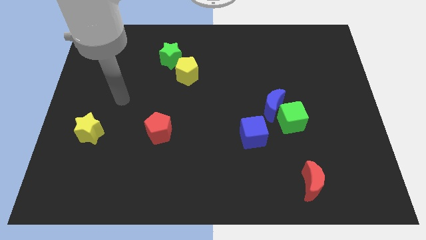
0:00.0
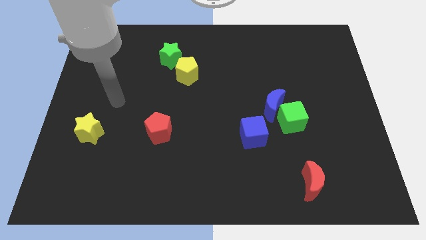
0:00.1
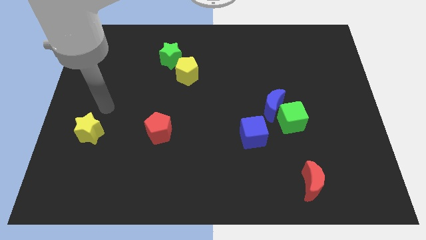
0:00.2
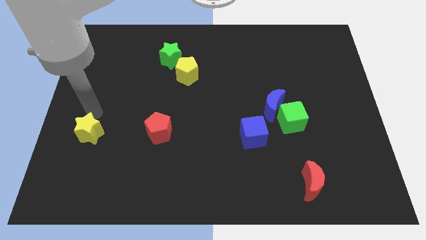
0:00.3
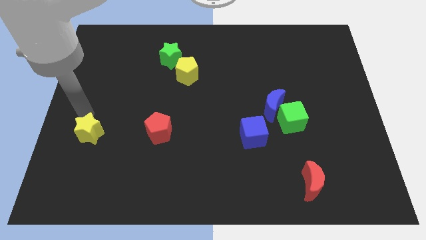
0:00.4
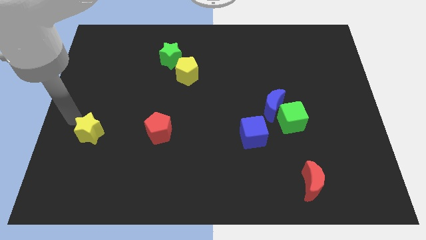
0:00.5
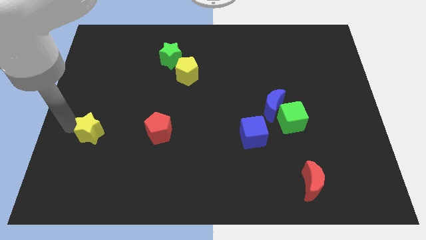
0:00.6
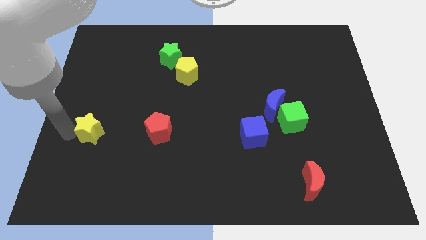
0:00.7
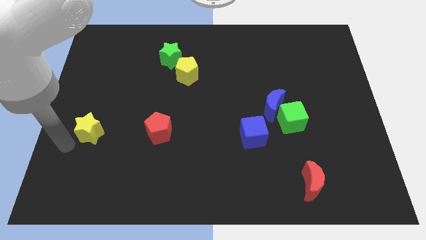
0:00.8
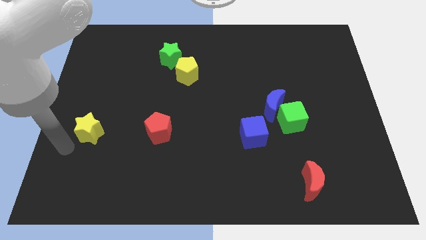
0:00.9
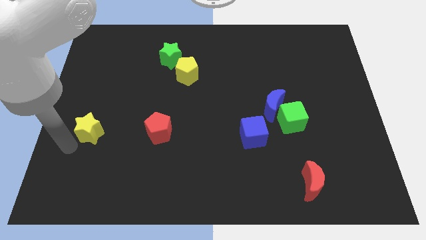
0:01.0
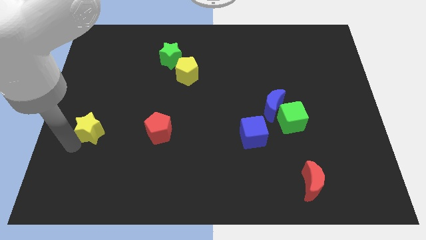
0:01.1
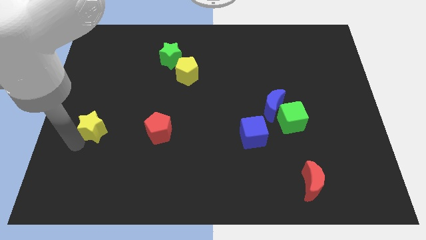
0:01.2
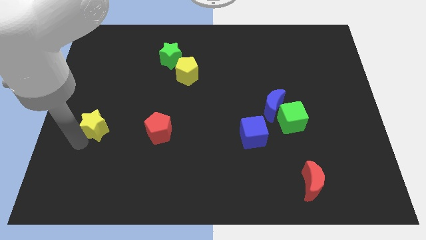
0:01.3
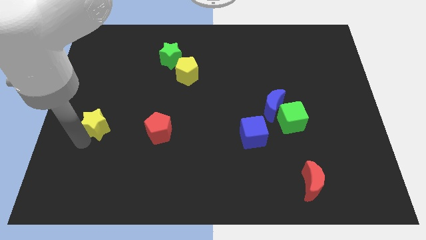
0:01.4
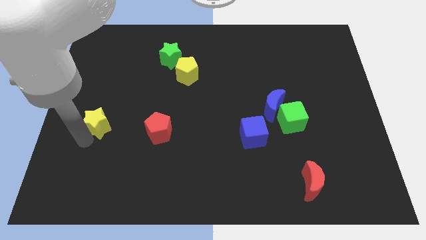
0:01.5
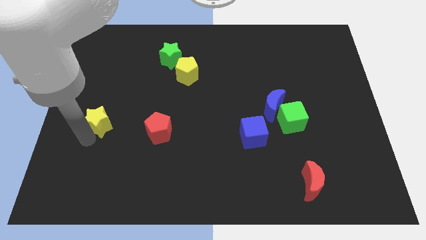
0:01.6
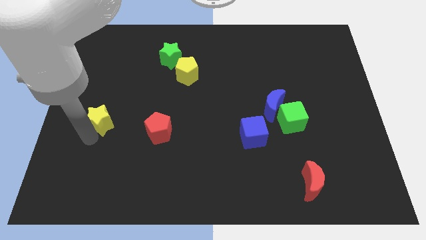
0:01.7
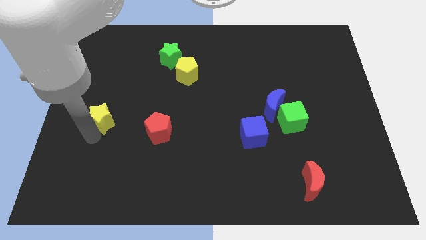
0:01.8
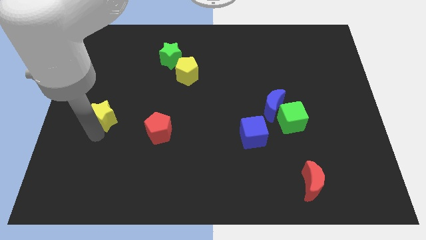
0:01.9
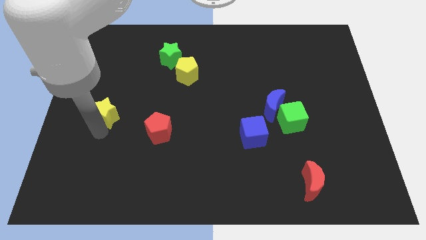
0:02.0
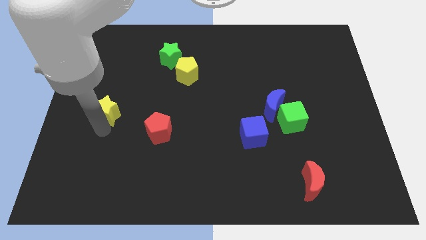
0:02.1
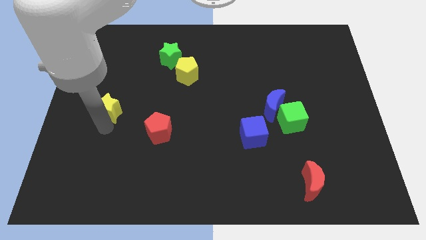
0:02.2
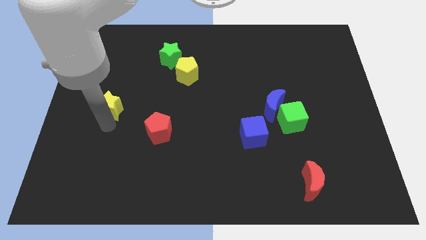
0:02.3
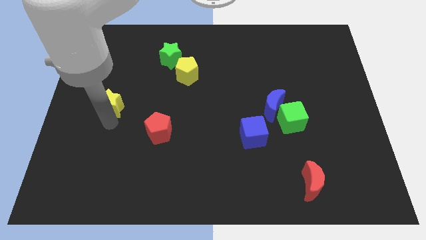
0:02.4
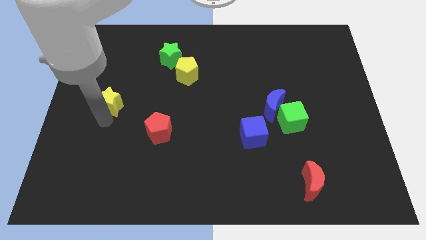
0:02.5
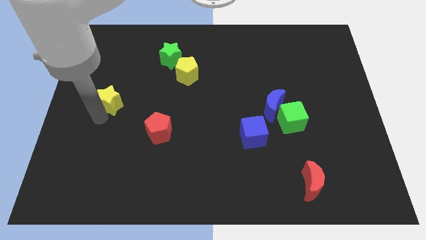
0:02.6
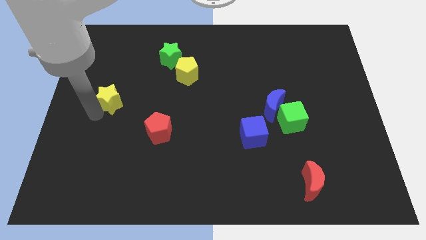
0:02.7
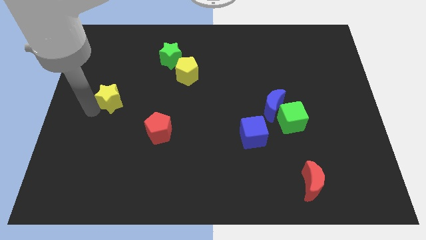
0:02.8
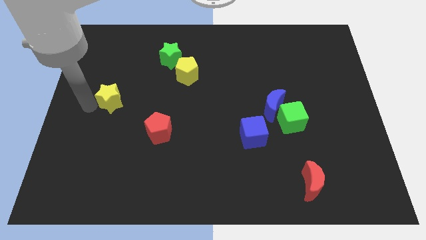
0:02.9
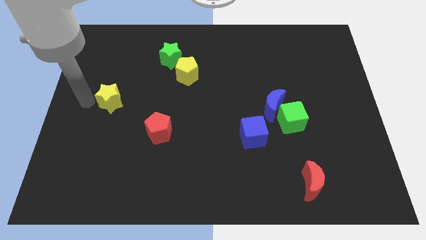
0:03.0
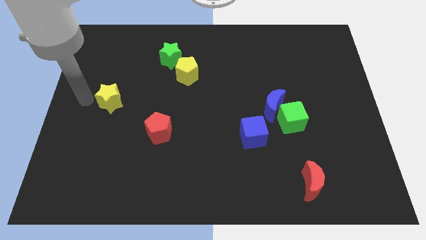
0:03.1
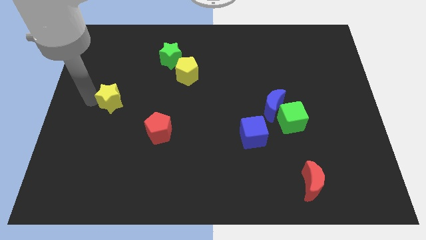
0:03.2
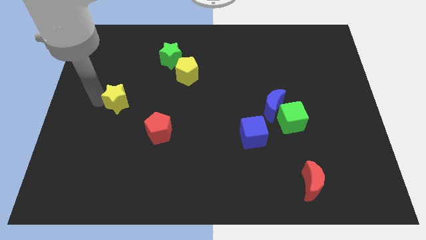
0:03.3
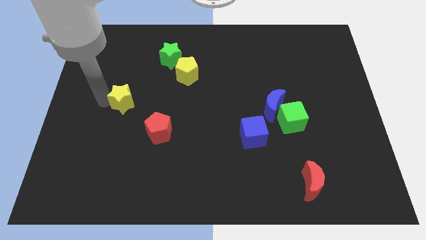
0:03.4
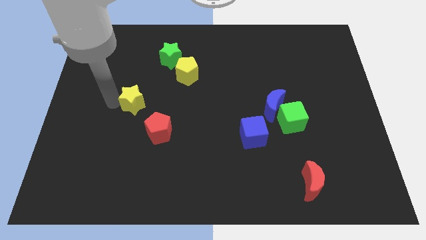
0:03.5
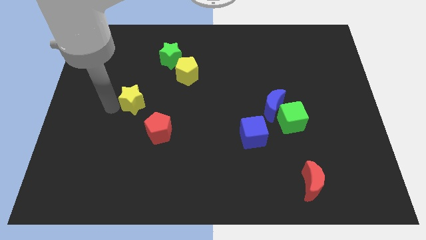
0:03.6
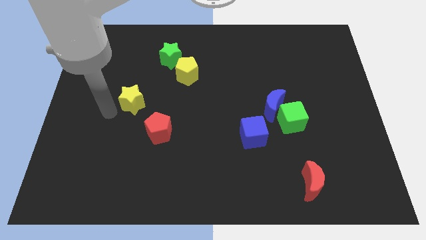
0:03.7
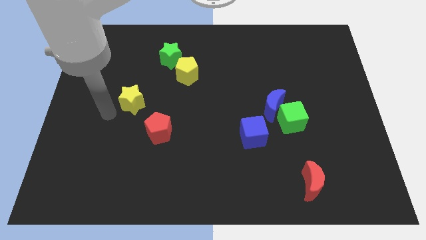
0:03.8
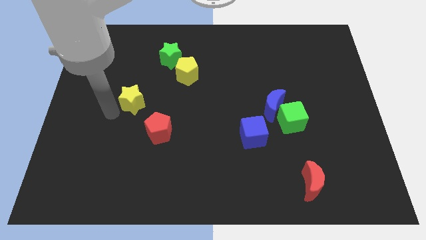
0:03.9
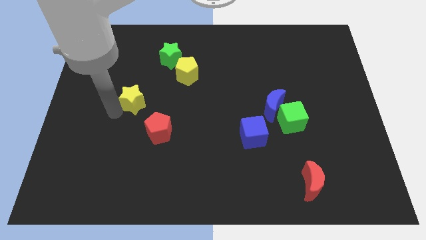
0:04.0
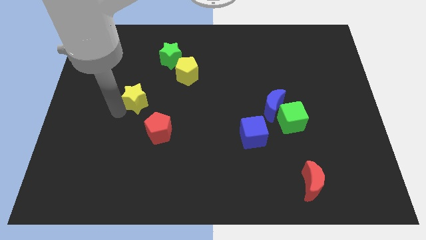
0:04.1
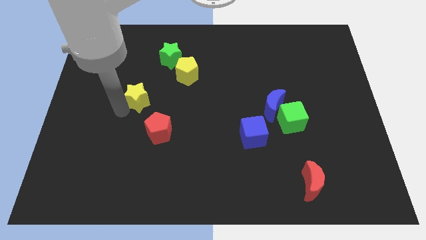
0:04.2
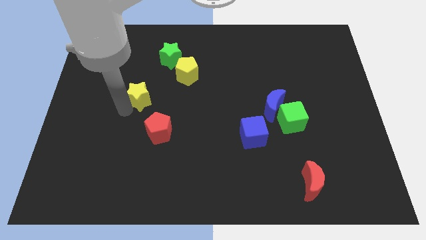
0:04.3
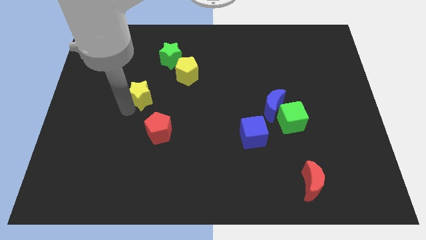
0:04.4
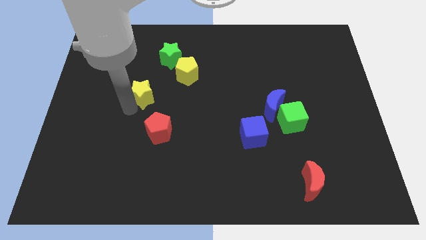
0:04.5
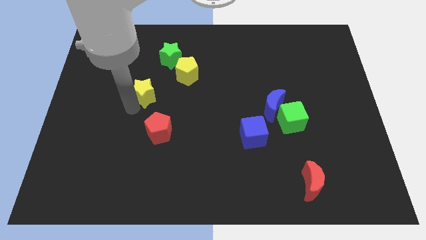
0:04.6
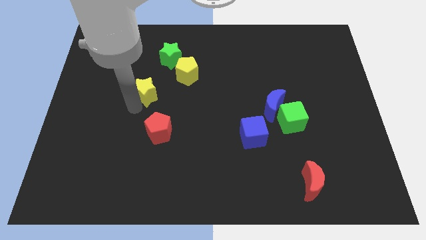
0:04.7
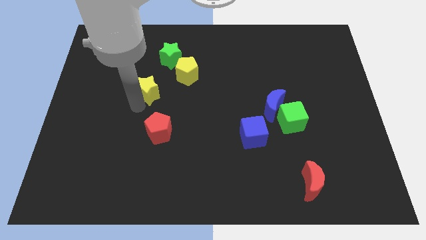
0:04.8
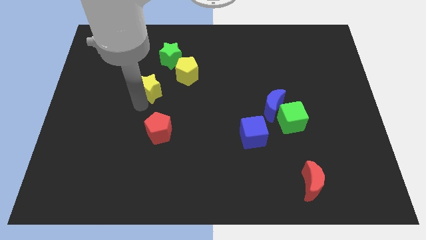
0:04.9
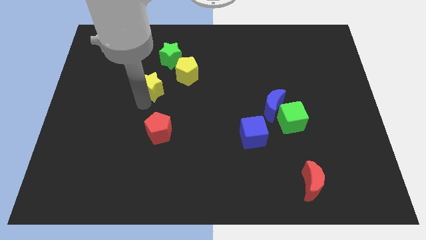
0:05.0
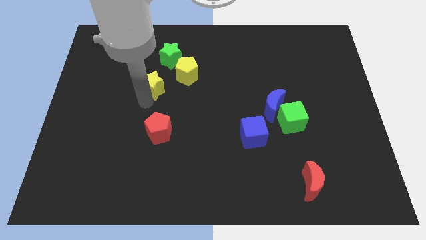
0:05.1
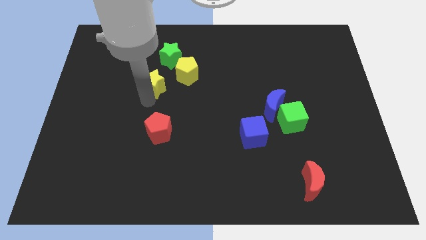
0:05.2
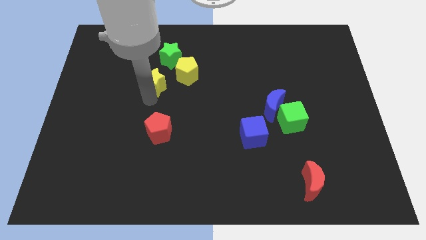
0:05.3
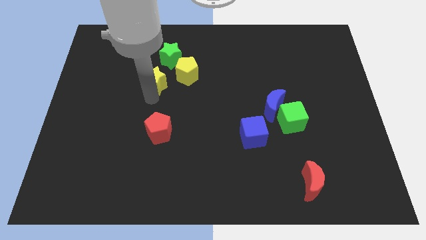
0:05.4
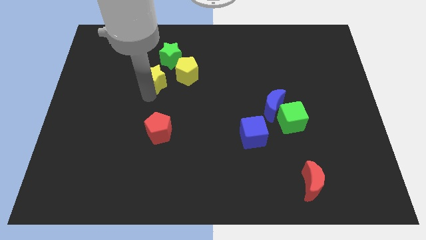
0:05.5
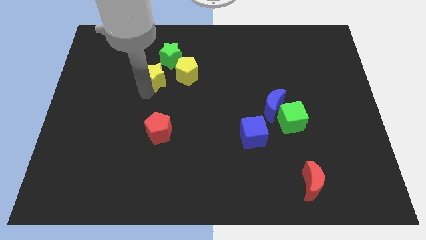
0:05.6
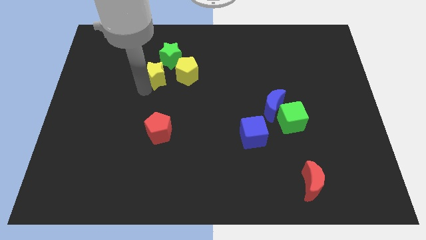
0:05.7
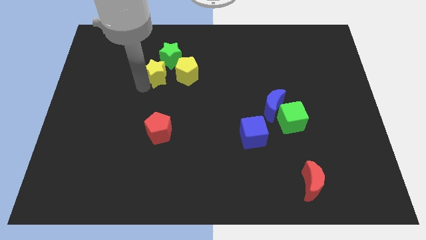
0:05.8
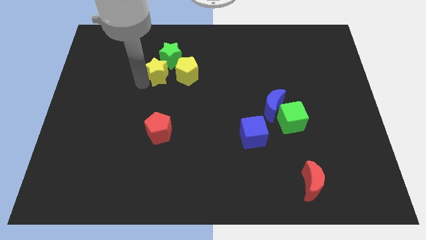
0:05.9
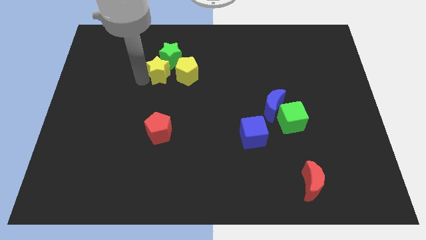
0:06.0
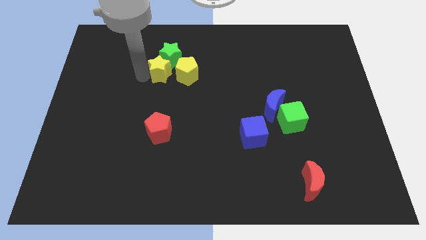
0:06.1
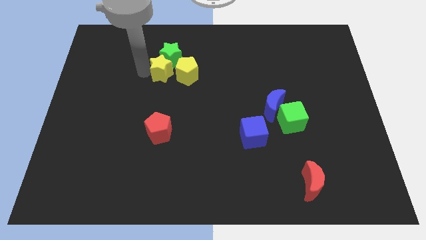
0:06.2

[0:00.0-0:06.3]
slide the yellow star towards the yellow pentagon

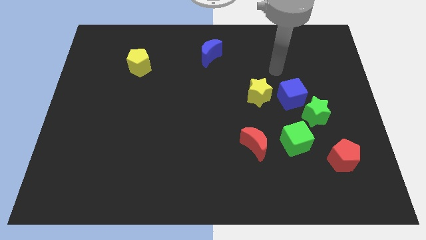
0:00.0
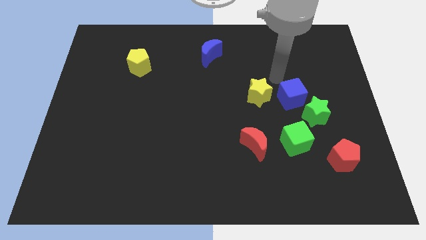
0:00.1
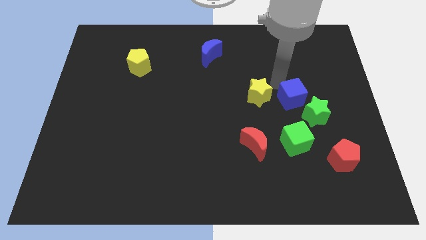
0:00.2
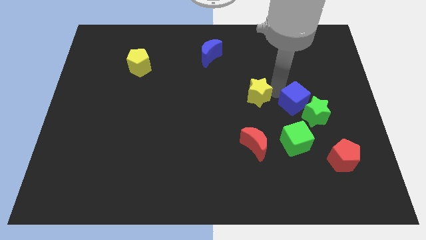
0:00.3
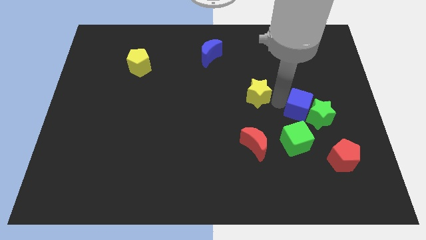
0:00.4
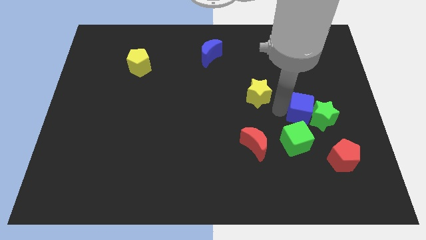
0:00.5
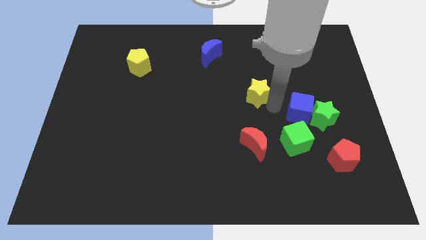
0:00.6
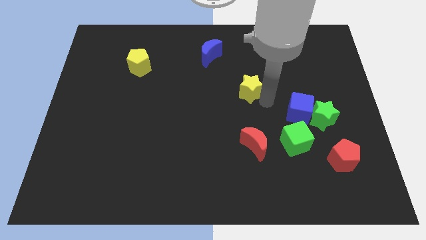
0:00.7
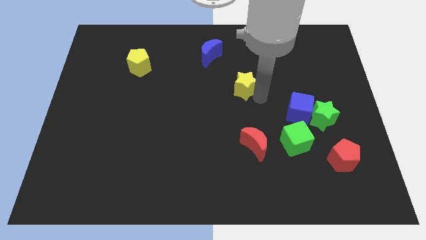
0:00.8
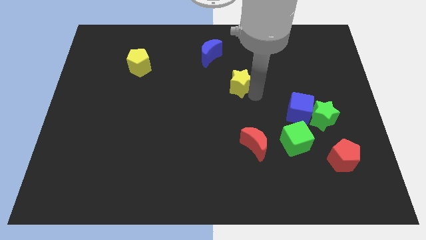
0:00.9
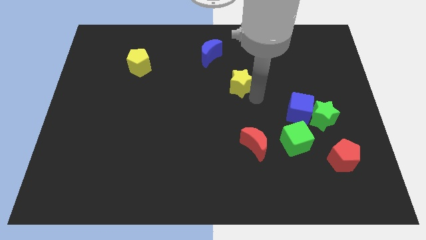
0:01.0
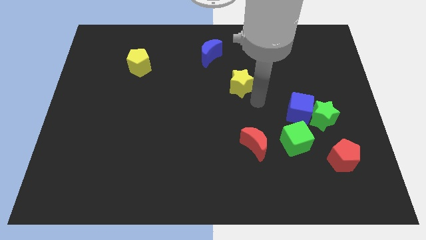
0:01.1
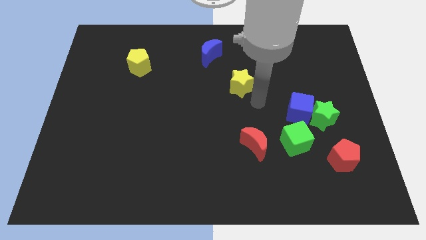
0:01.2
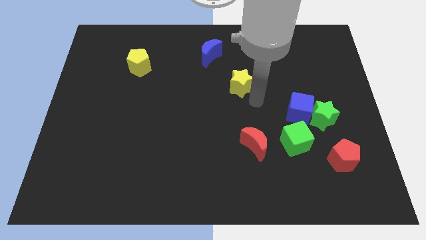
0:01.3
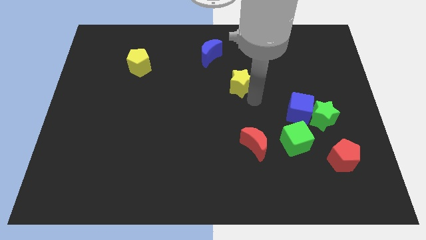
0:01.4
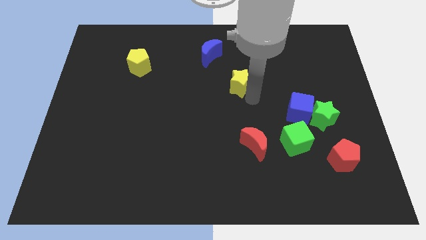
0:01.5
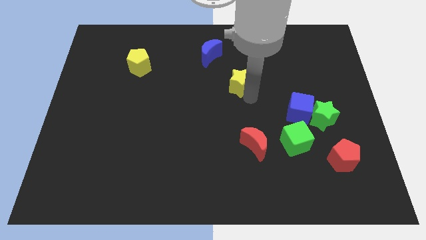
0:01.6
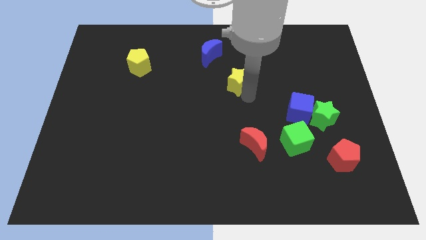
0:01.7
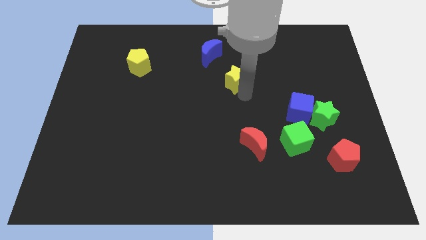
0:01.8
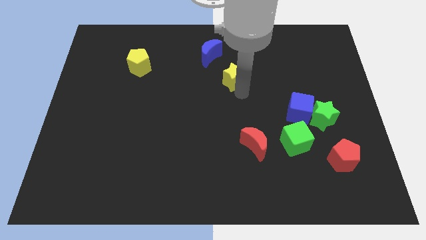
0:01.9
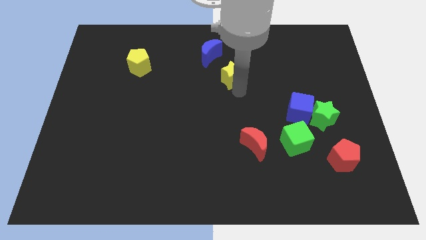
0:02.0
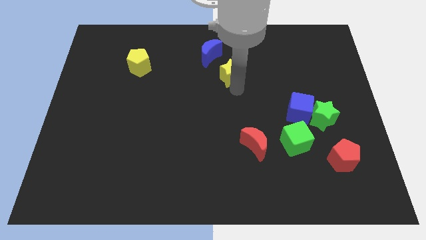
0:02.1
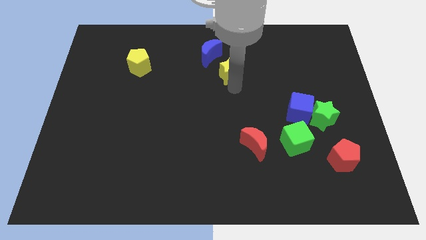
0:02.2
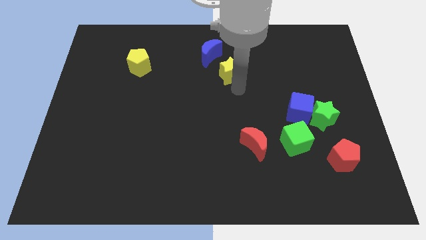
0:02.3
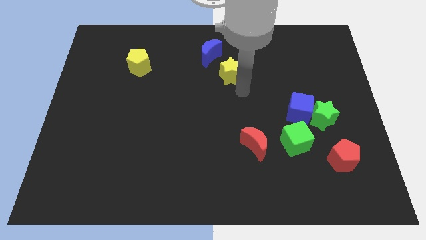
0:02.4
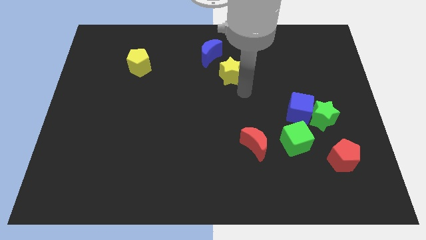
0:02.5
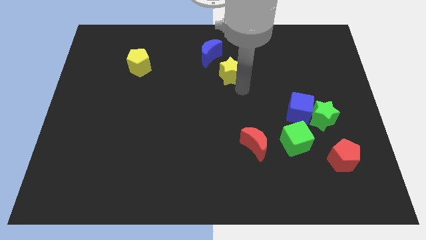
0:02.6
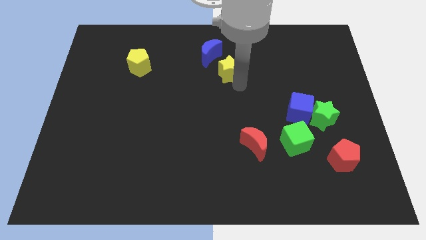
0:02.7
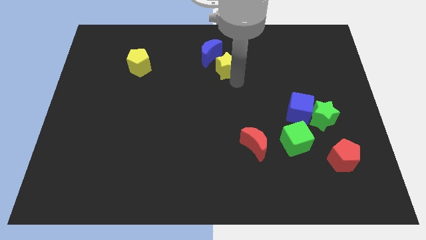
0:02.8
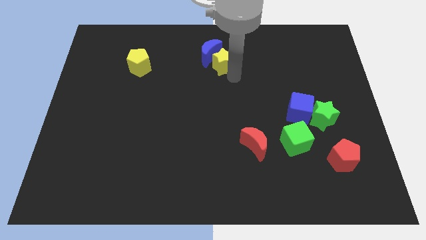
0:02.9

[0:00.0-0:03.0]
slide the yellow star next to the blue moon
